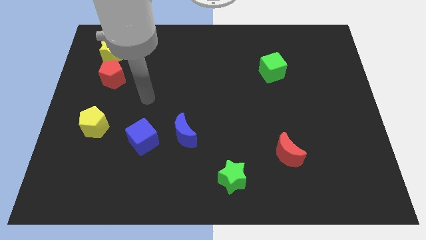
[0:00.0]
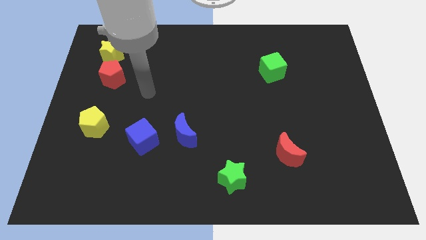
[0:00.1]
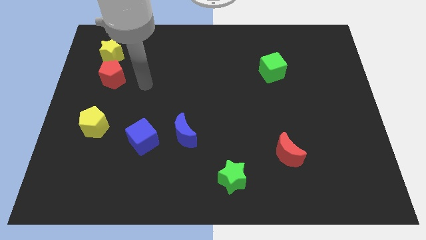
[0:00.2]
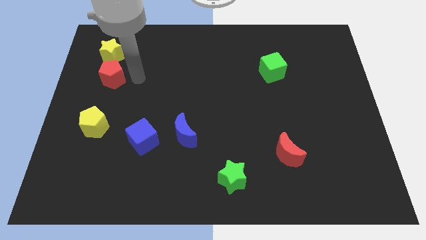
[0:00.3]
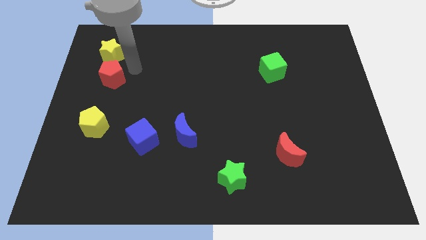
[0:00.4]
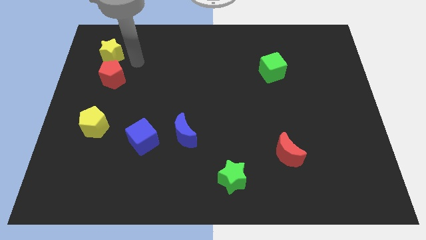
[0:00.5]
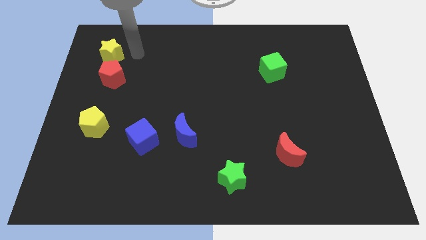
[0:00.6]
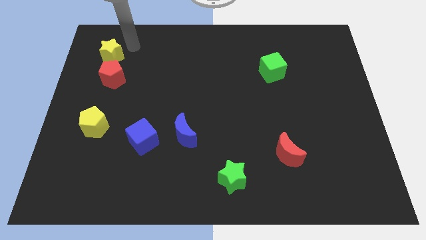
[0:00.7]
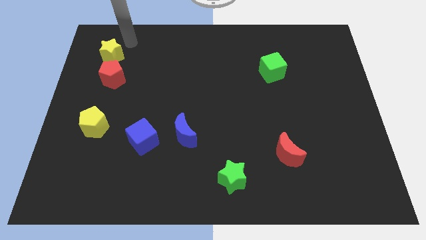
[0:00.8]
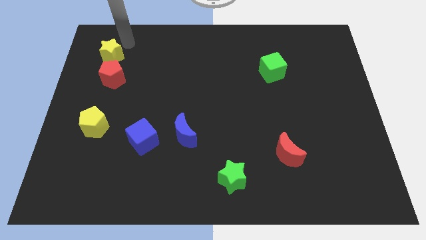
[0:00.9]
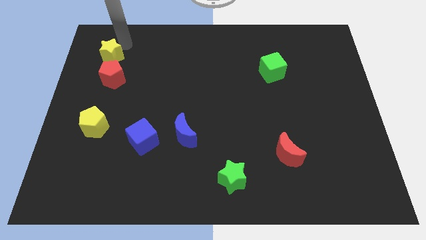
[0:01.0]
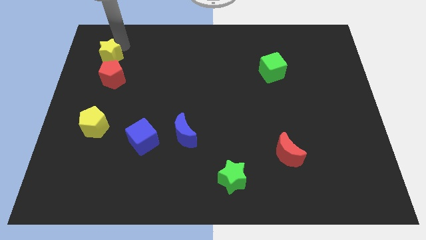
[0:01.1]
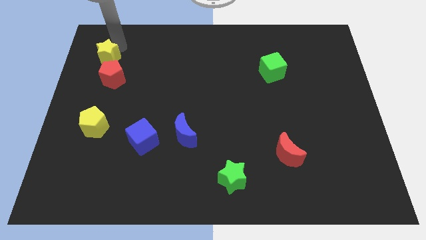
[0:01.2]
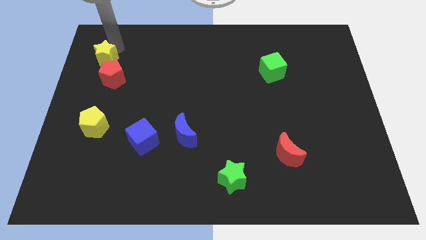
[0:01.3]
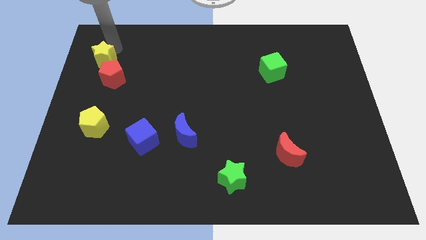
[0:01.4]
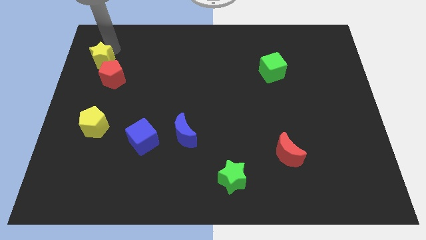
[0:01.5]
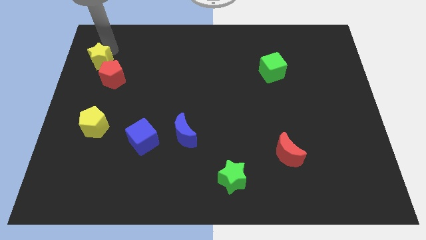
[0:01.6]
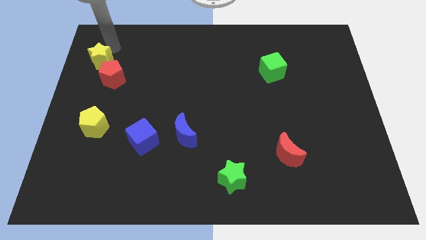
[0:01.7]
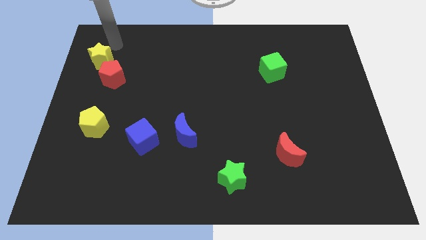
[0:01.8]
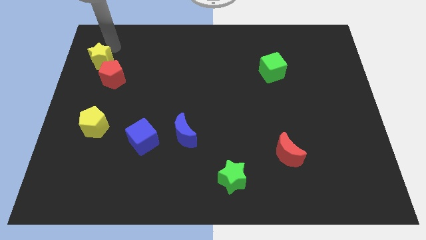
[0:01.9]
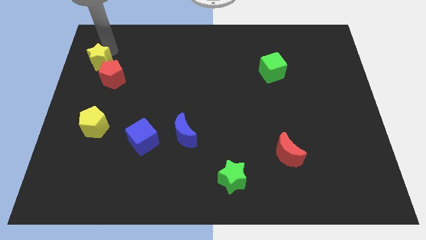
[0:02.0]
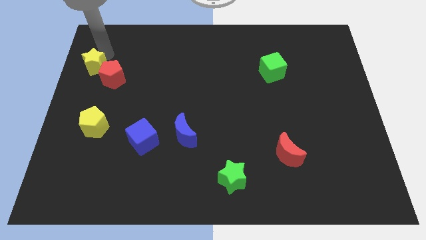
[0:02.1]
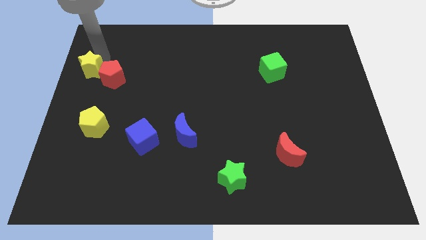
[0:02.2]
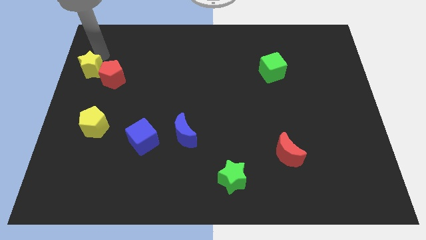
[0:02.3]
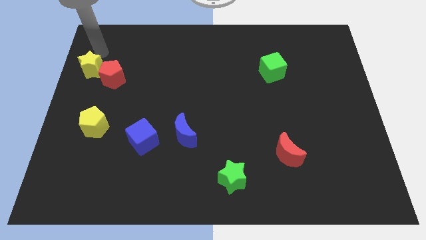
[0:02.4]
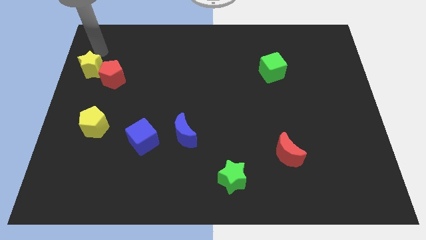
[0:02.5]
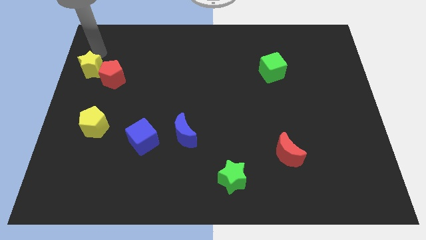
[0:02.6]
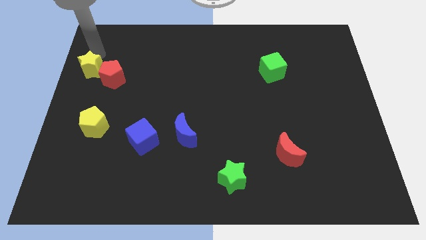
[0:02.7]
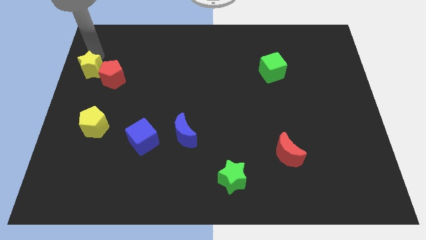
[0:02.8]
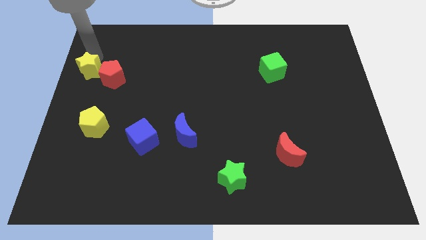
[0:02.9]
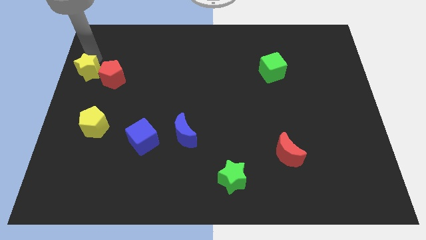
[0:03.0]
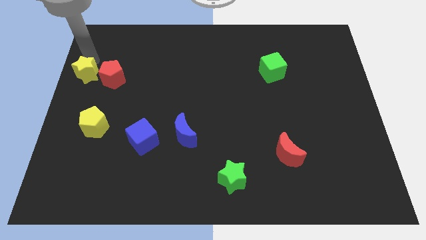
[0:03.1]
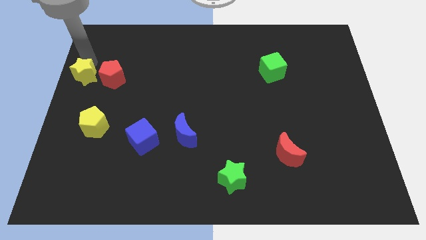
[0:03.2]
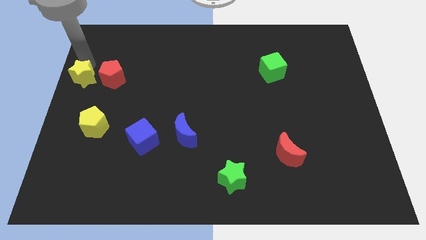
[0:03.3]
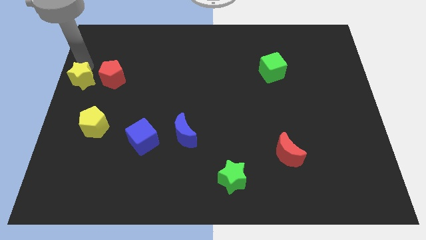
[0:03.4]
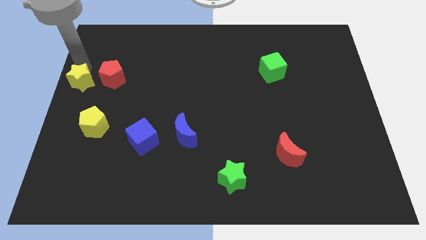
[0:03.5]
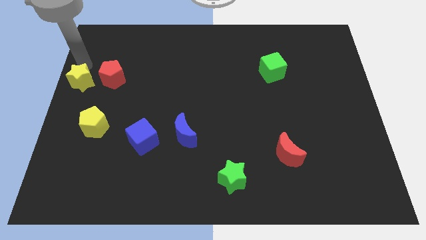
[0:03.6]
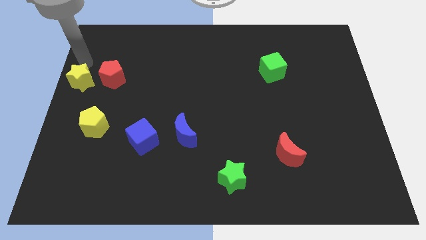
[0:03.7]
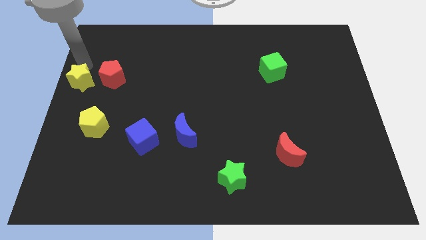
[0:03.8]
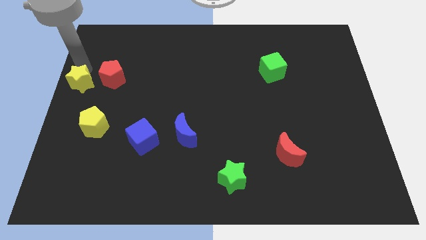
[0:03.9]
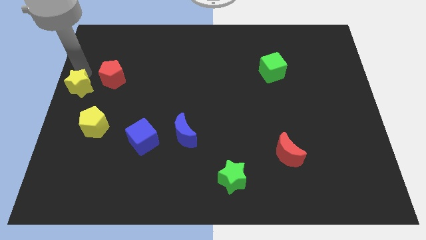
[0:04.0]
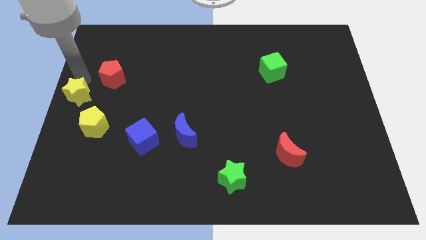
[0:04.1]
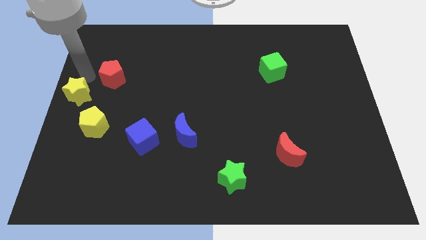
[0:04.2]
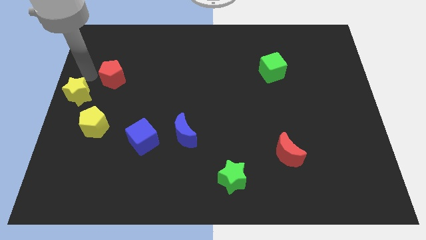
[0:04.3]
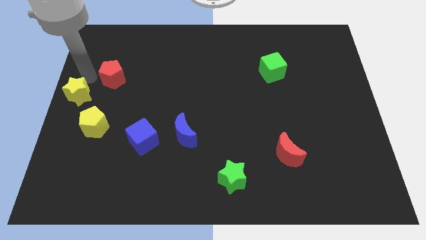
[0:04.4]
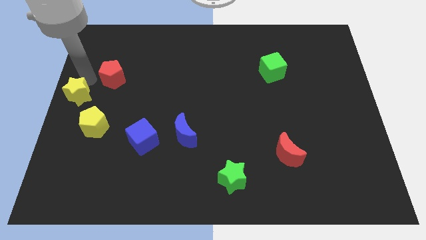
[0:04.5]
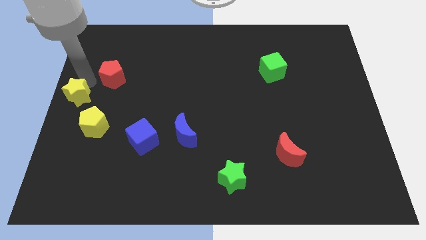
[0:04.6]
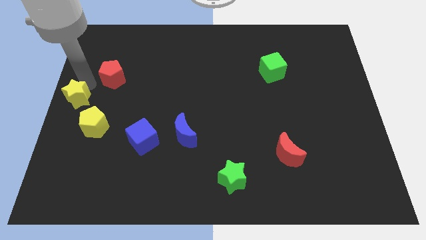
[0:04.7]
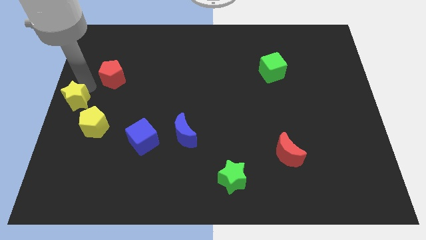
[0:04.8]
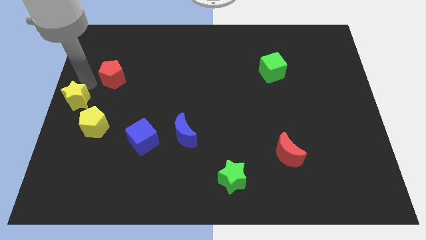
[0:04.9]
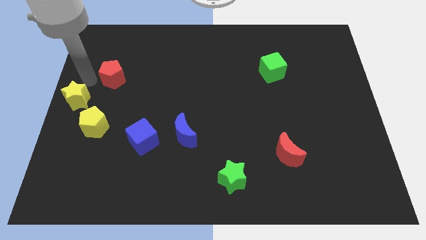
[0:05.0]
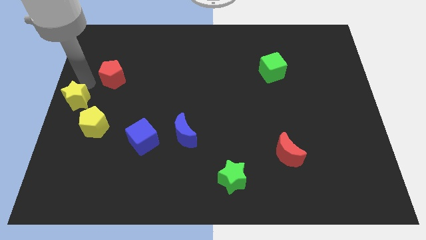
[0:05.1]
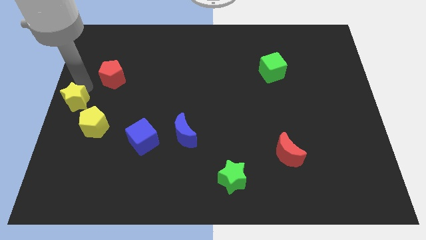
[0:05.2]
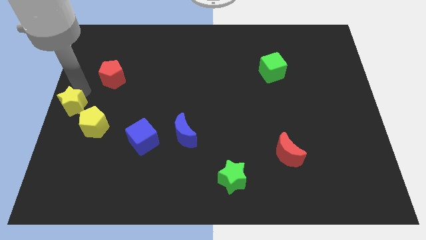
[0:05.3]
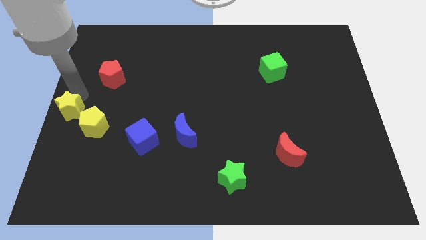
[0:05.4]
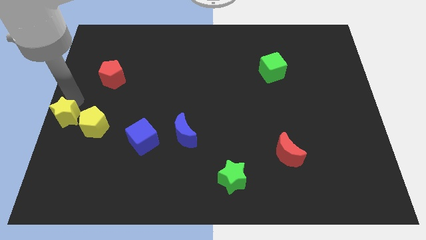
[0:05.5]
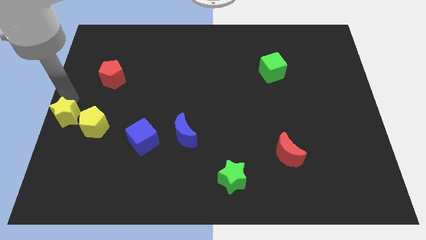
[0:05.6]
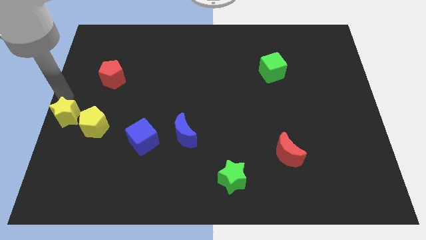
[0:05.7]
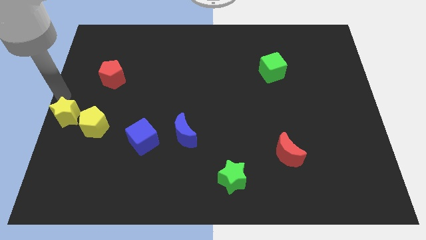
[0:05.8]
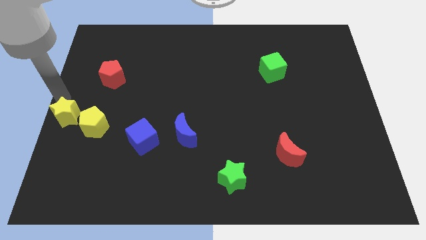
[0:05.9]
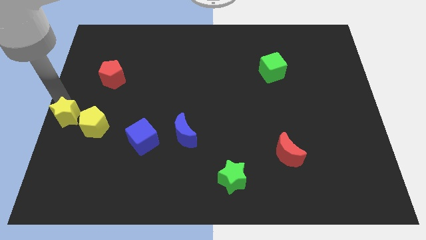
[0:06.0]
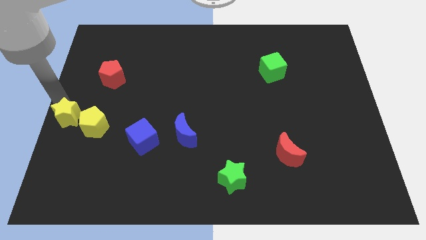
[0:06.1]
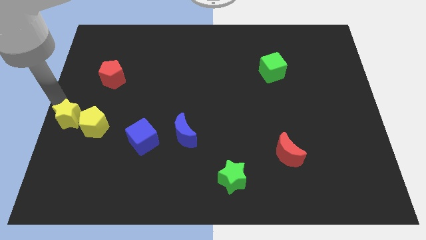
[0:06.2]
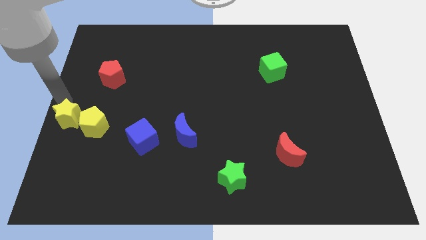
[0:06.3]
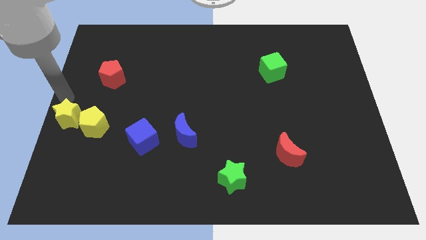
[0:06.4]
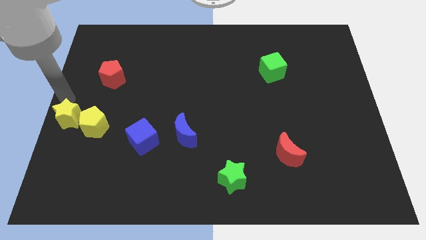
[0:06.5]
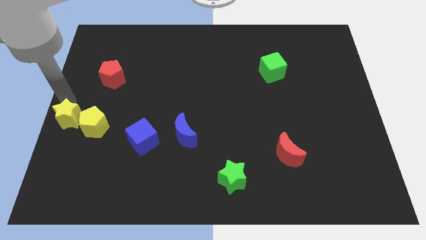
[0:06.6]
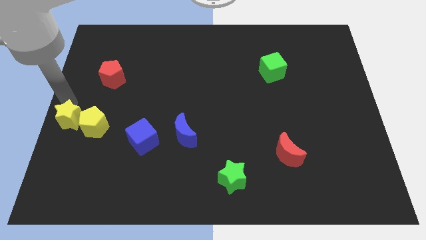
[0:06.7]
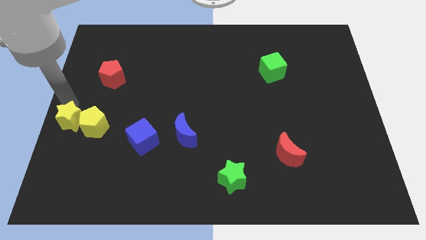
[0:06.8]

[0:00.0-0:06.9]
slide the yellow star down

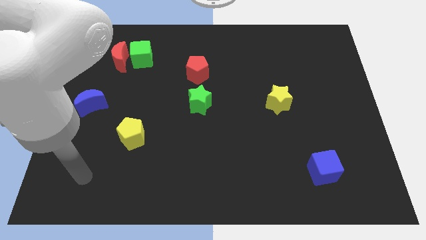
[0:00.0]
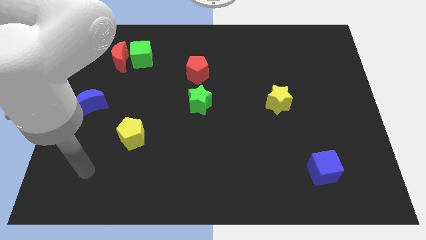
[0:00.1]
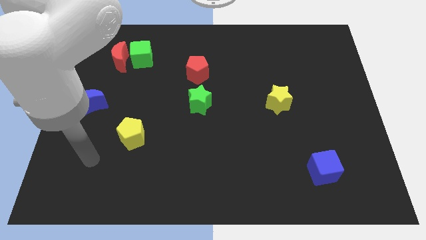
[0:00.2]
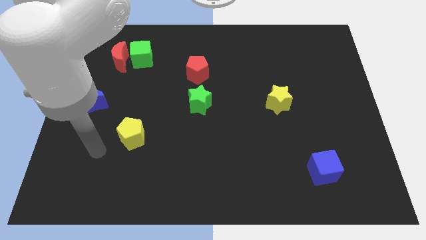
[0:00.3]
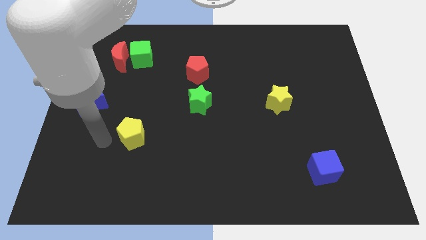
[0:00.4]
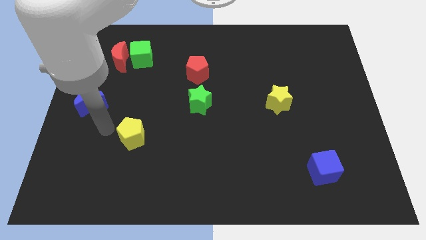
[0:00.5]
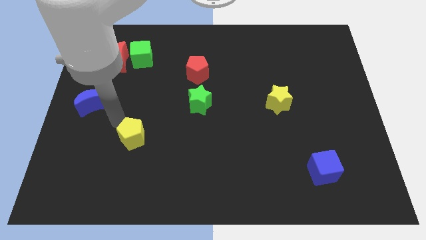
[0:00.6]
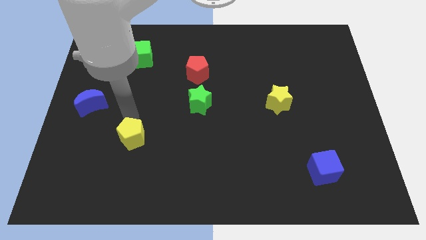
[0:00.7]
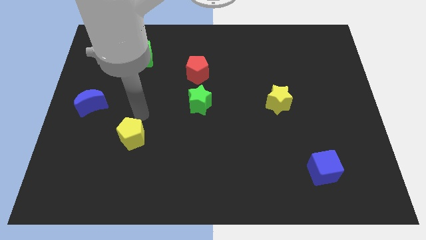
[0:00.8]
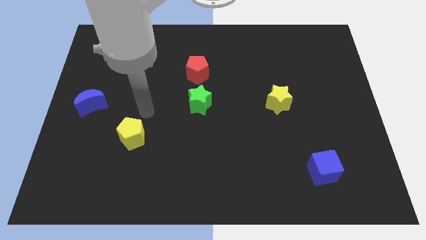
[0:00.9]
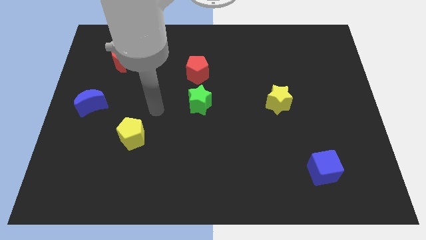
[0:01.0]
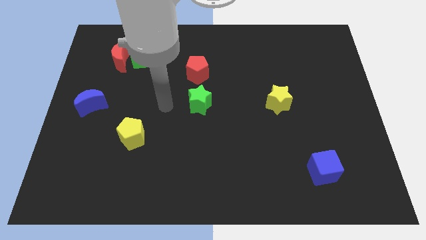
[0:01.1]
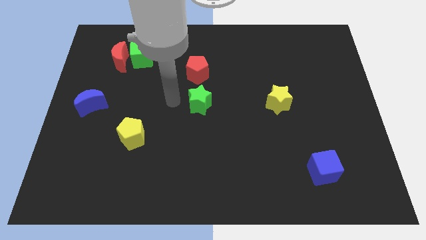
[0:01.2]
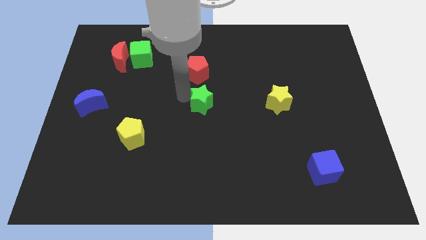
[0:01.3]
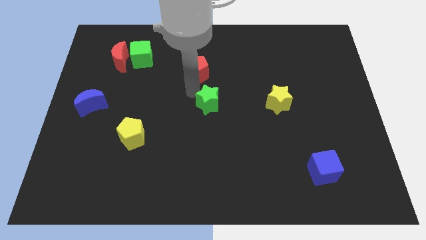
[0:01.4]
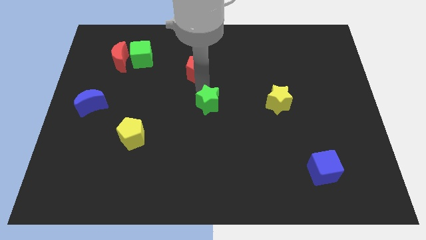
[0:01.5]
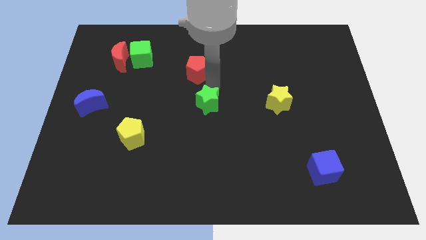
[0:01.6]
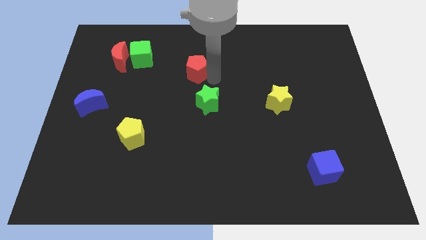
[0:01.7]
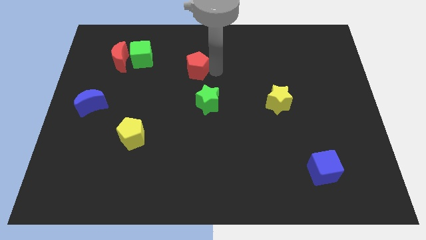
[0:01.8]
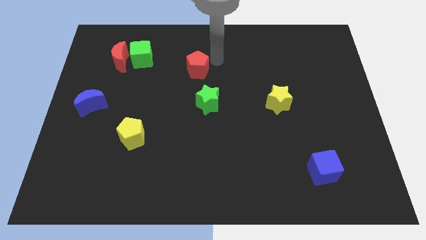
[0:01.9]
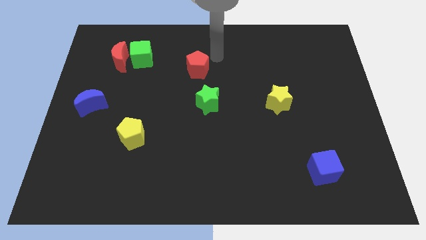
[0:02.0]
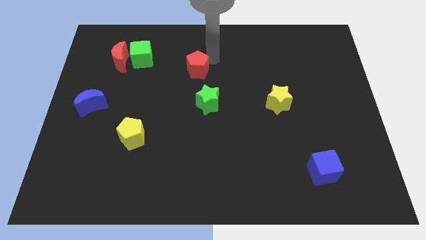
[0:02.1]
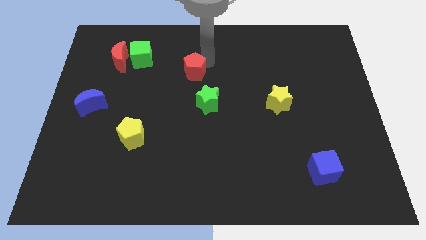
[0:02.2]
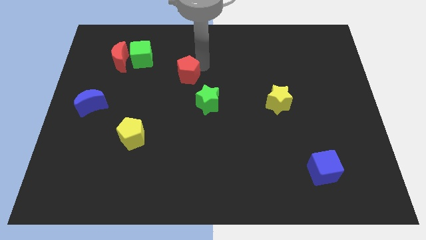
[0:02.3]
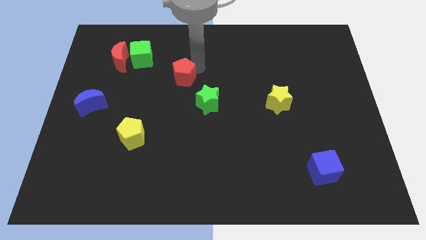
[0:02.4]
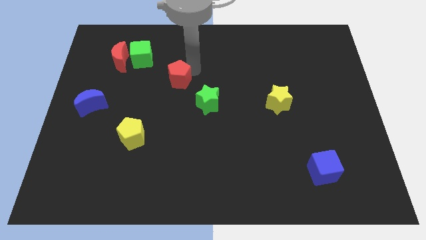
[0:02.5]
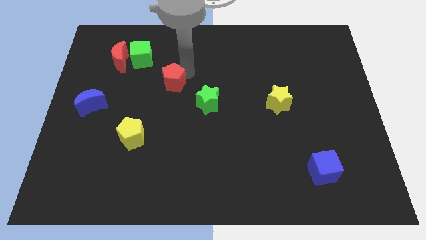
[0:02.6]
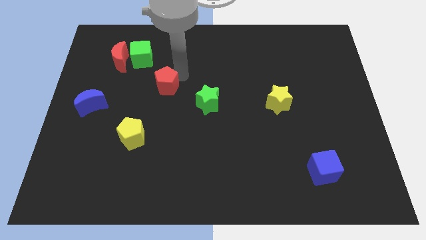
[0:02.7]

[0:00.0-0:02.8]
push the red pentagon diagonally downwards and left a little bit
